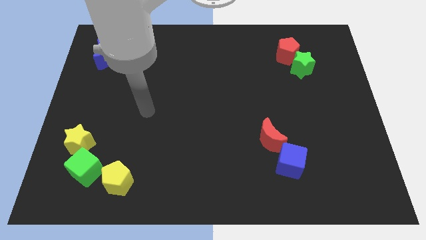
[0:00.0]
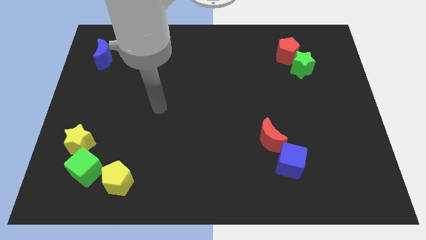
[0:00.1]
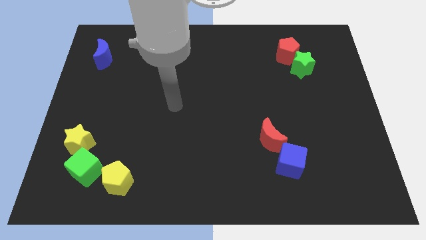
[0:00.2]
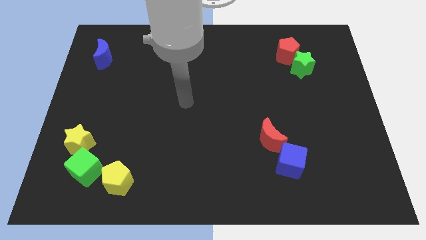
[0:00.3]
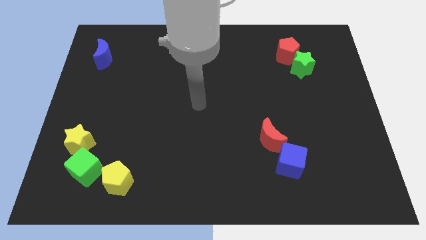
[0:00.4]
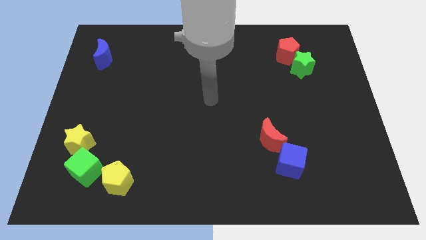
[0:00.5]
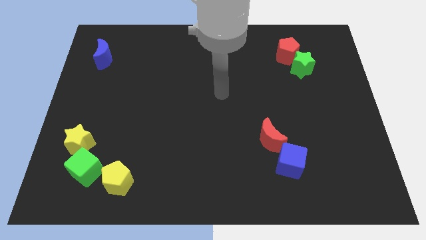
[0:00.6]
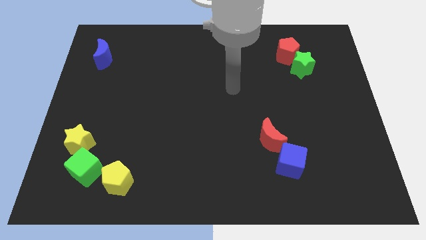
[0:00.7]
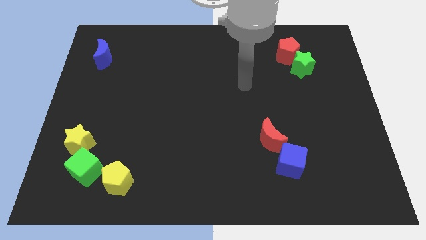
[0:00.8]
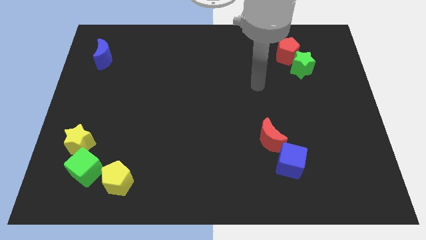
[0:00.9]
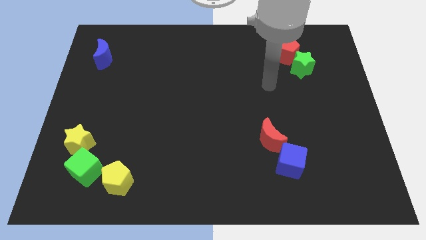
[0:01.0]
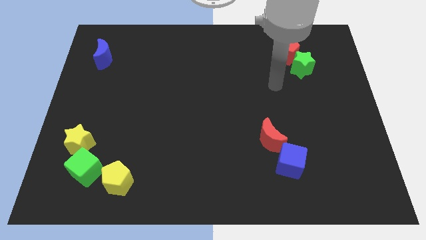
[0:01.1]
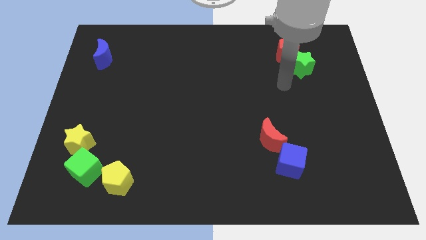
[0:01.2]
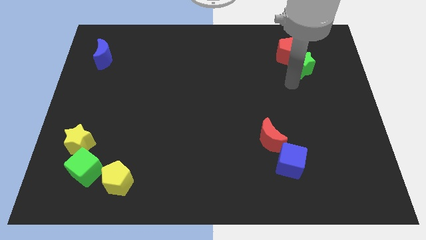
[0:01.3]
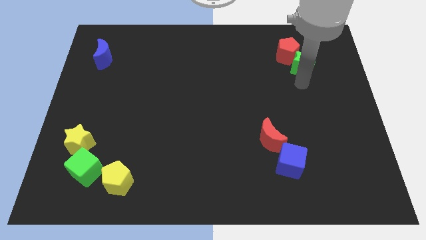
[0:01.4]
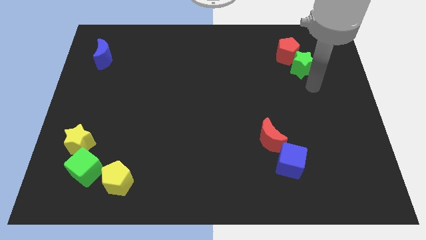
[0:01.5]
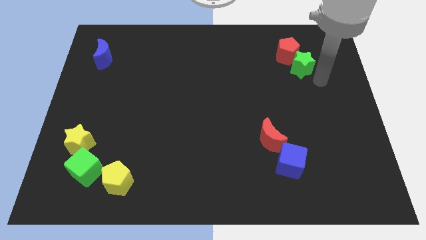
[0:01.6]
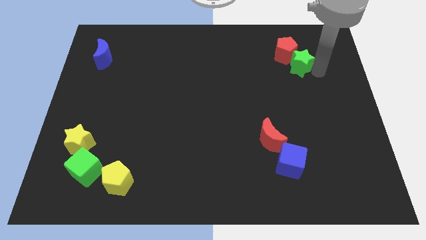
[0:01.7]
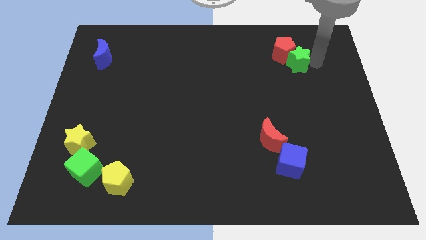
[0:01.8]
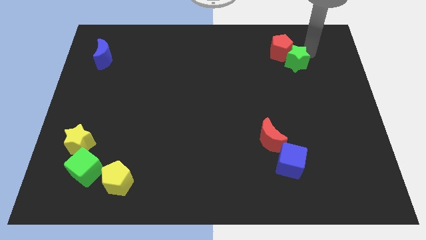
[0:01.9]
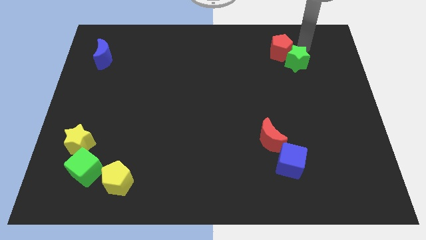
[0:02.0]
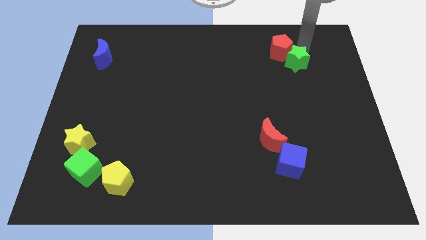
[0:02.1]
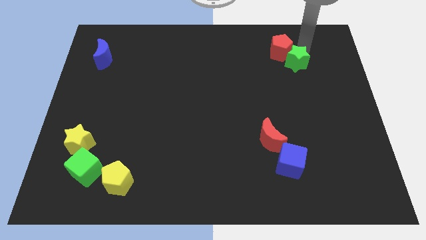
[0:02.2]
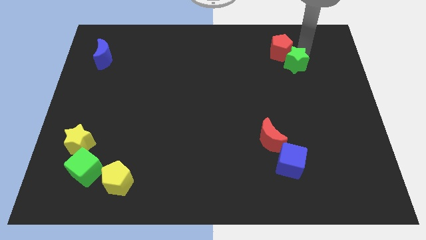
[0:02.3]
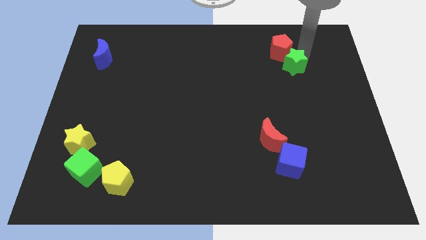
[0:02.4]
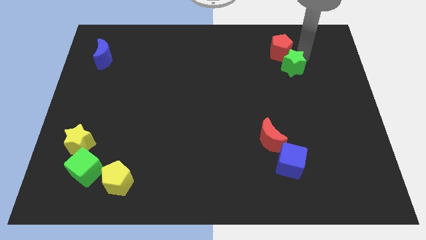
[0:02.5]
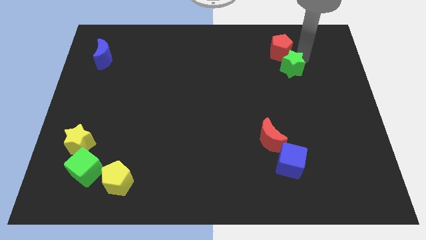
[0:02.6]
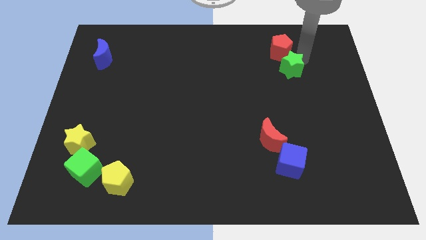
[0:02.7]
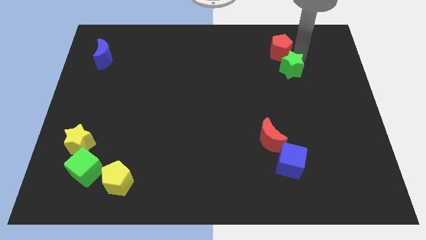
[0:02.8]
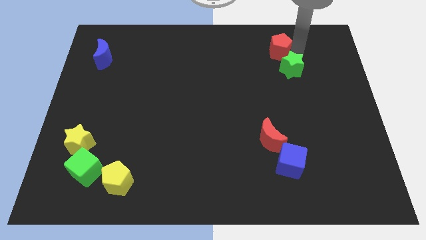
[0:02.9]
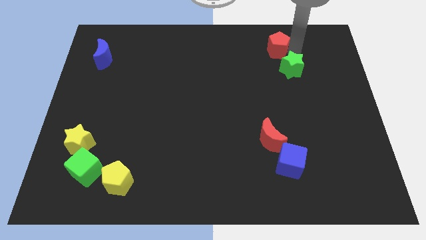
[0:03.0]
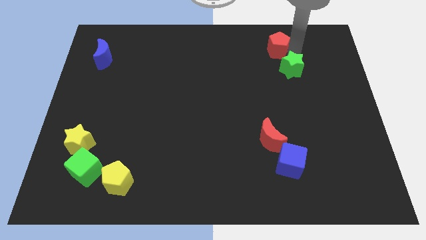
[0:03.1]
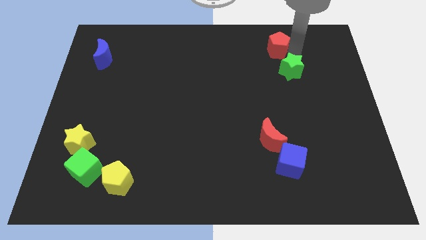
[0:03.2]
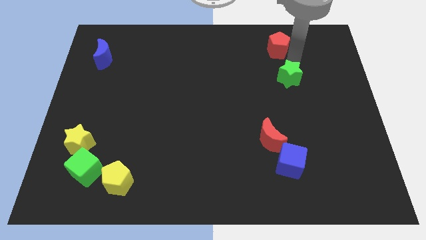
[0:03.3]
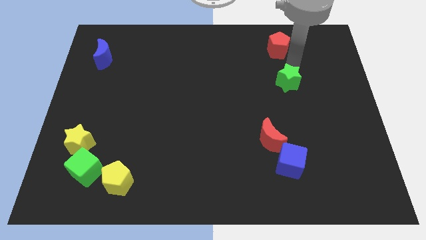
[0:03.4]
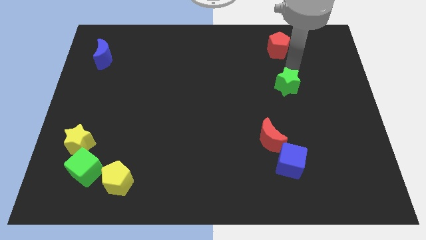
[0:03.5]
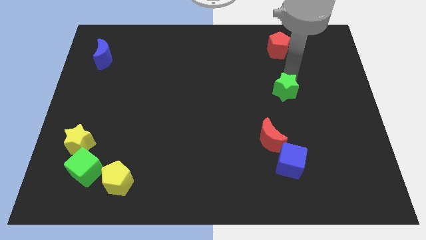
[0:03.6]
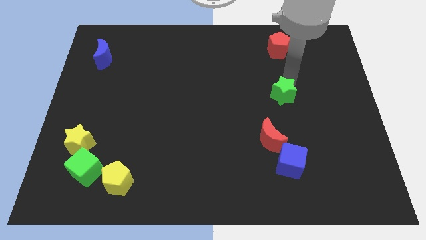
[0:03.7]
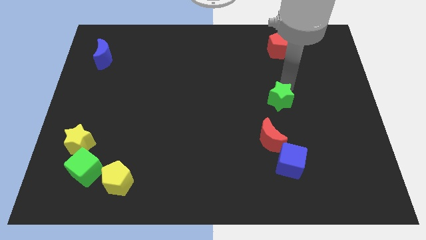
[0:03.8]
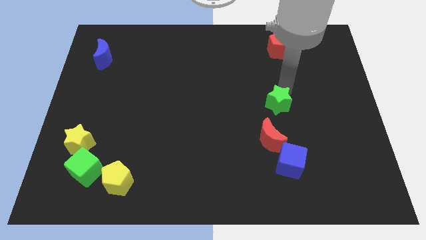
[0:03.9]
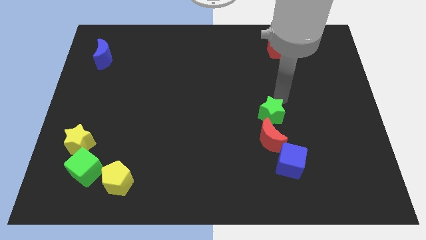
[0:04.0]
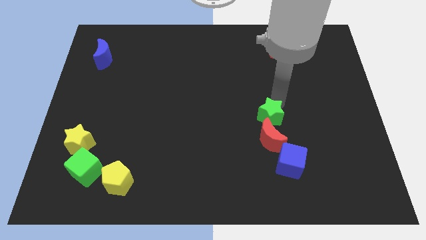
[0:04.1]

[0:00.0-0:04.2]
slide the green star towards the red moon

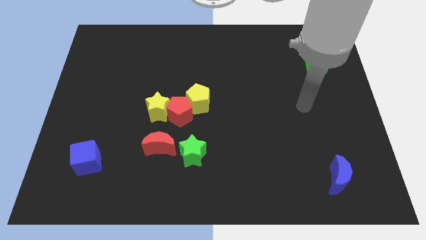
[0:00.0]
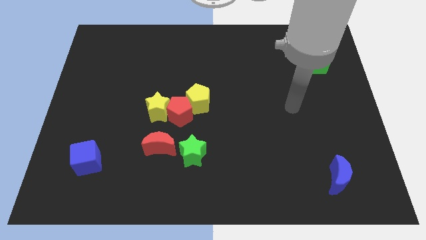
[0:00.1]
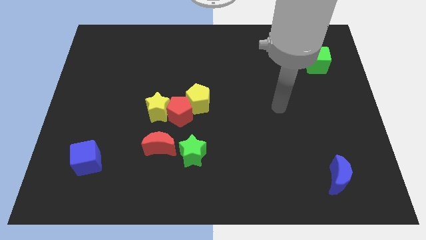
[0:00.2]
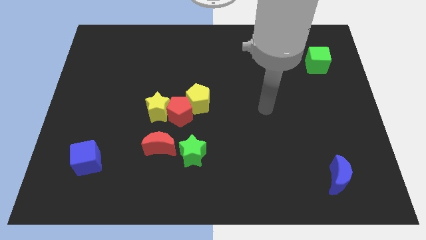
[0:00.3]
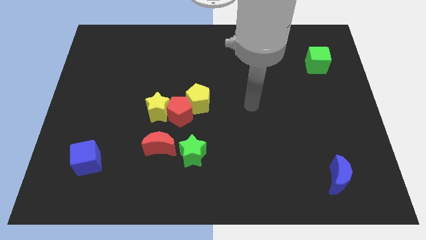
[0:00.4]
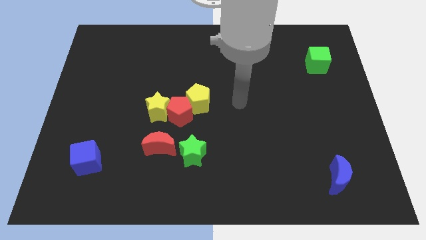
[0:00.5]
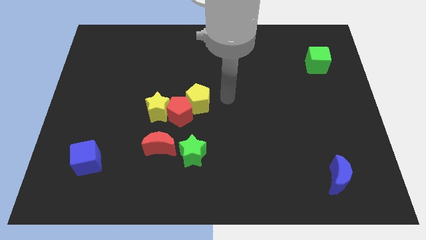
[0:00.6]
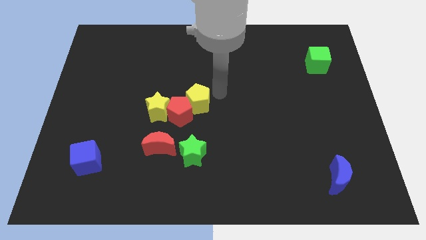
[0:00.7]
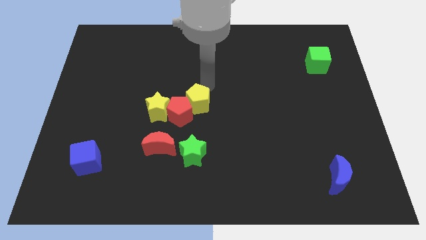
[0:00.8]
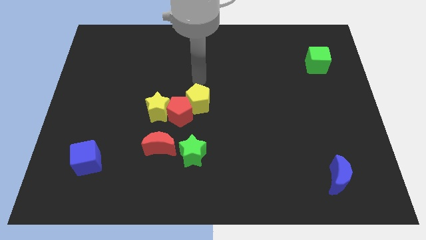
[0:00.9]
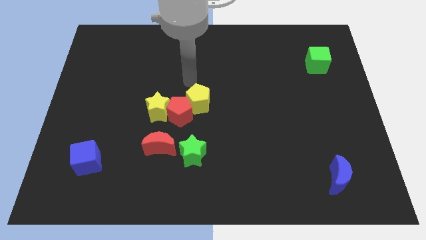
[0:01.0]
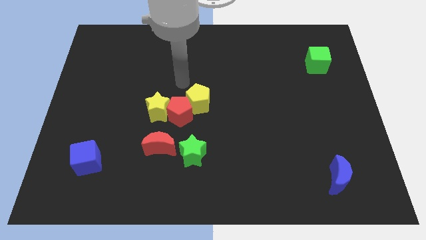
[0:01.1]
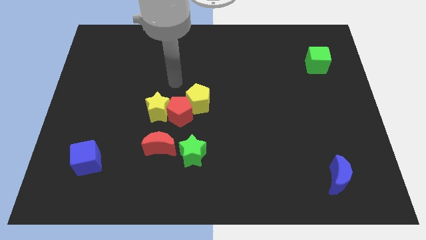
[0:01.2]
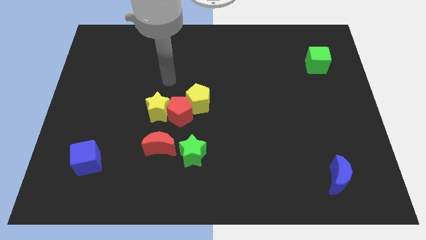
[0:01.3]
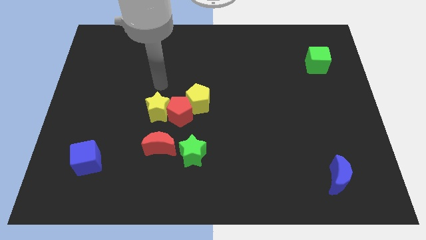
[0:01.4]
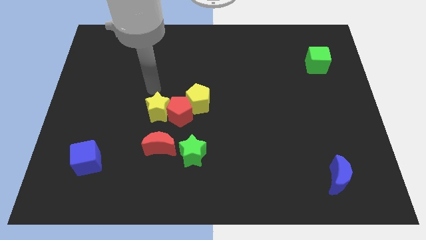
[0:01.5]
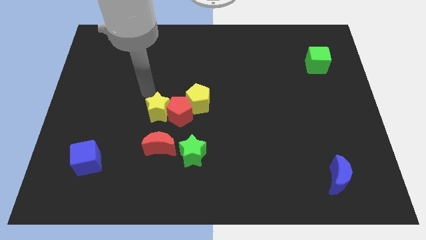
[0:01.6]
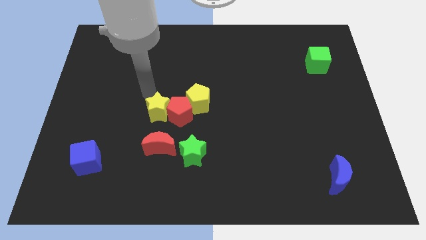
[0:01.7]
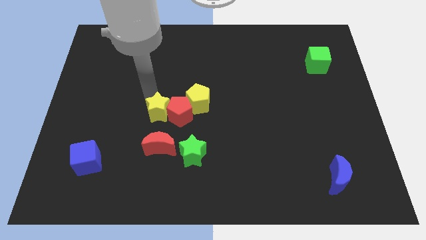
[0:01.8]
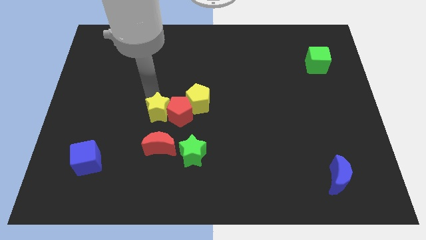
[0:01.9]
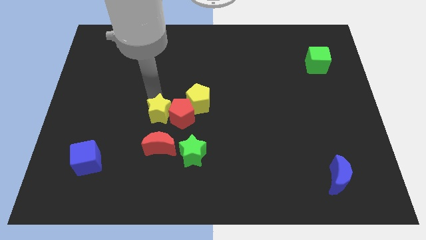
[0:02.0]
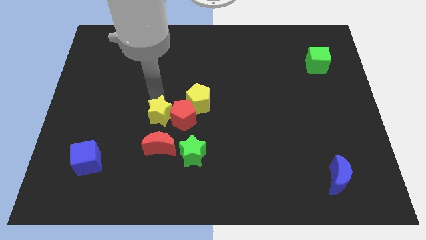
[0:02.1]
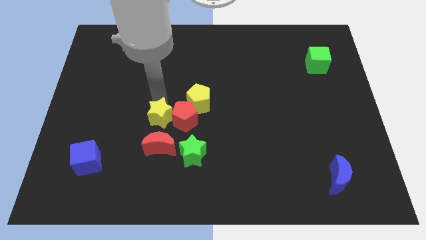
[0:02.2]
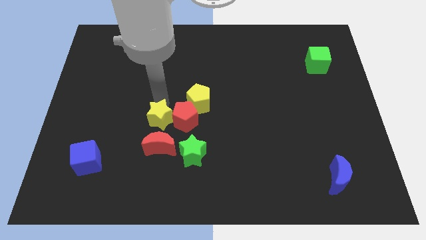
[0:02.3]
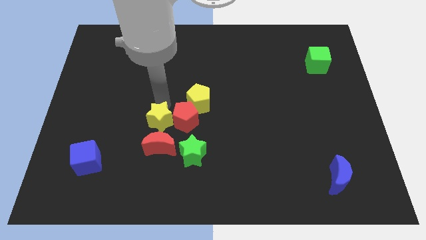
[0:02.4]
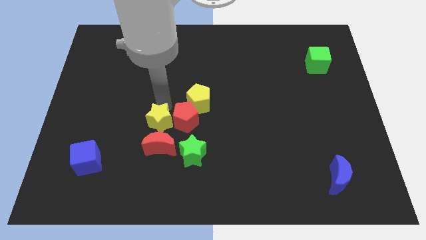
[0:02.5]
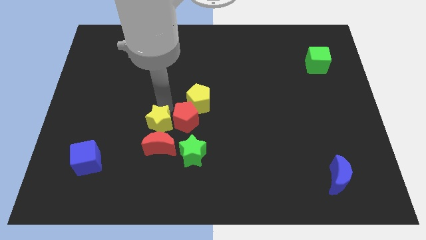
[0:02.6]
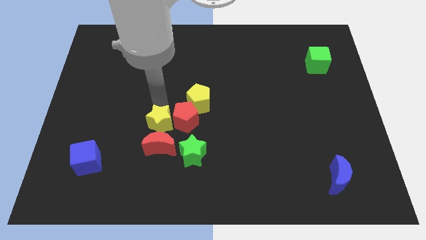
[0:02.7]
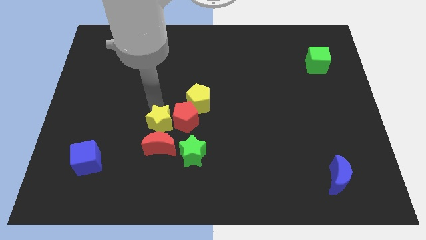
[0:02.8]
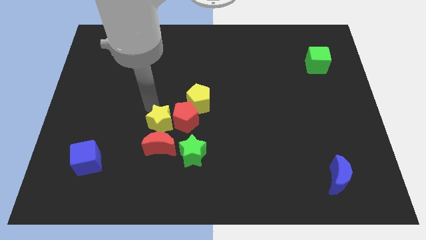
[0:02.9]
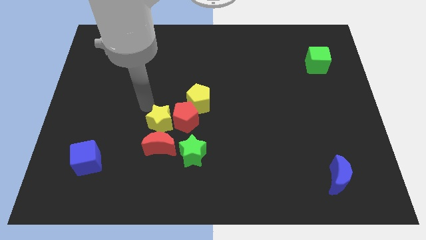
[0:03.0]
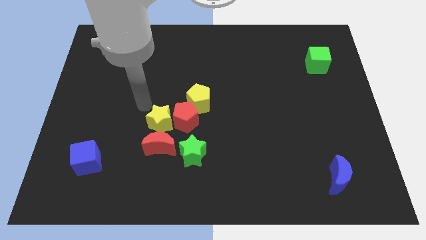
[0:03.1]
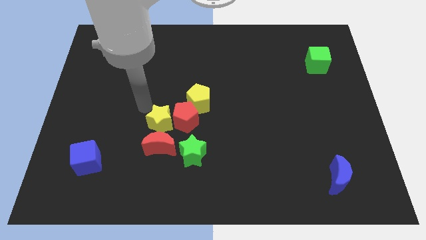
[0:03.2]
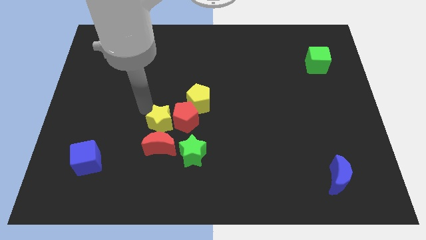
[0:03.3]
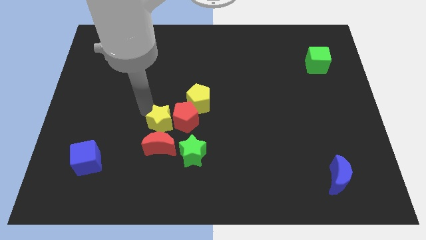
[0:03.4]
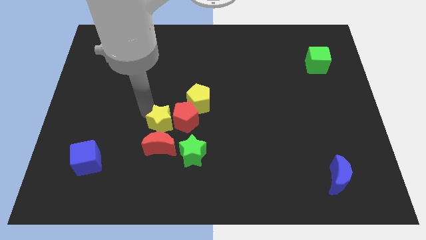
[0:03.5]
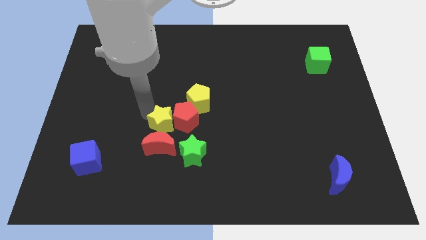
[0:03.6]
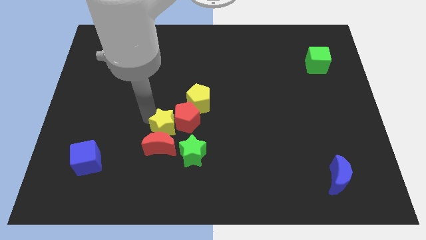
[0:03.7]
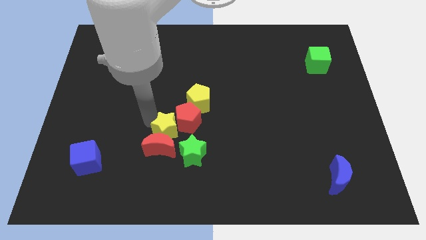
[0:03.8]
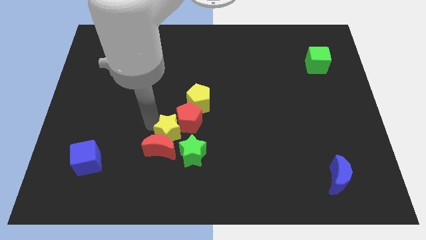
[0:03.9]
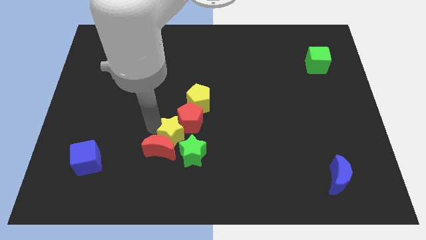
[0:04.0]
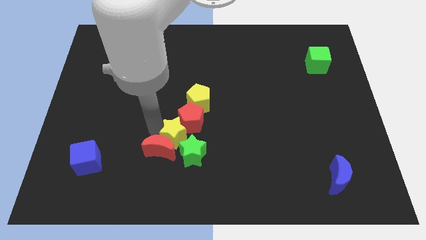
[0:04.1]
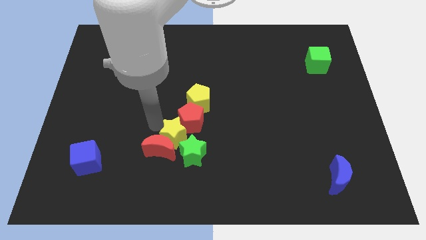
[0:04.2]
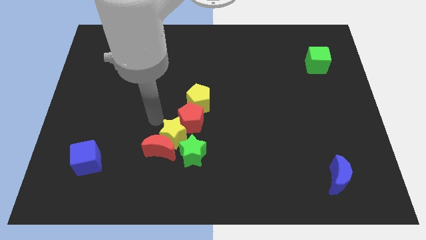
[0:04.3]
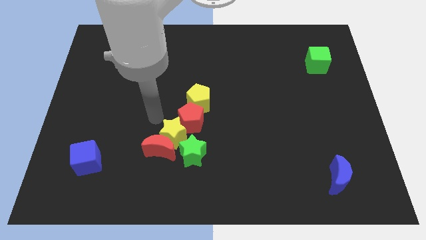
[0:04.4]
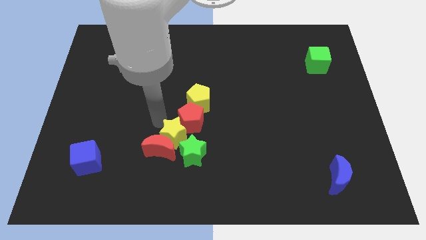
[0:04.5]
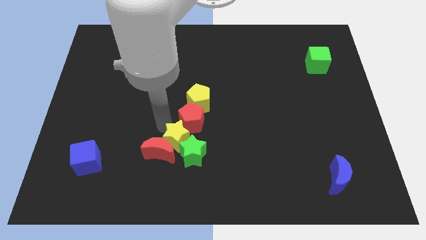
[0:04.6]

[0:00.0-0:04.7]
move the yellow star towards the green star

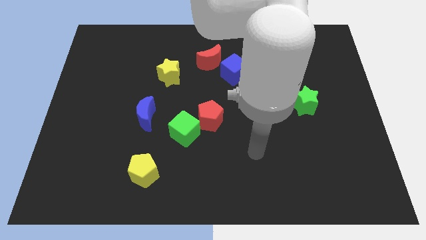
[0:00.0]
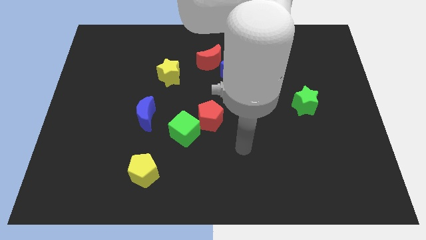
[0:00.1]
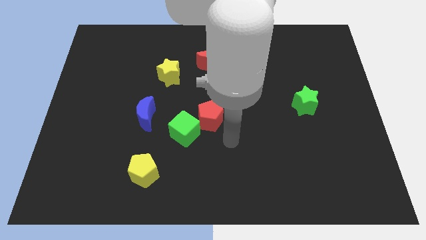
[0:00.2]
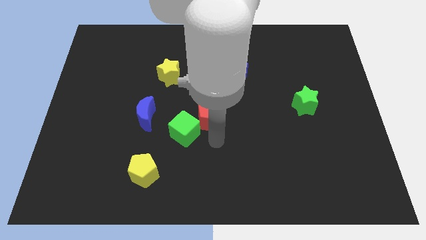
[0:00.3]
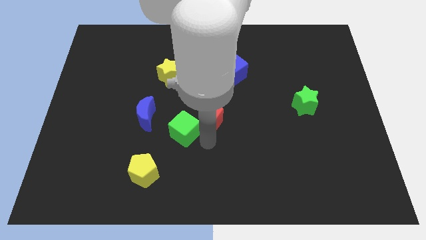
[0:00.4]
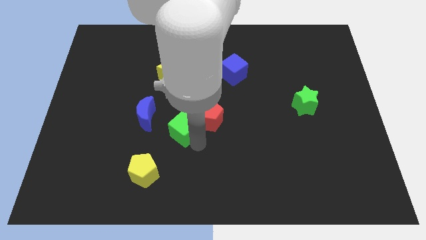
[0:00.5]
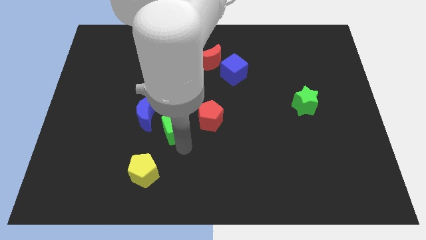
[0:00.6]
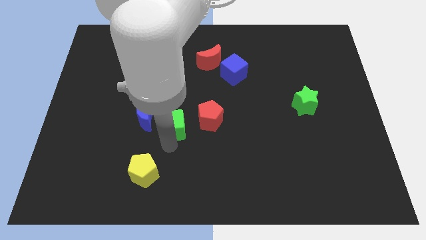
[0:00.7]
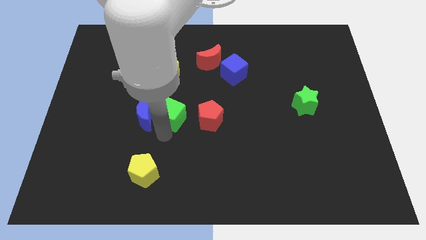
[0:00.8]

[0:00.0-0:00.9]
put the blue moon next to the green cube
